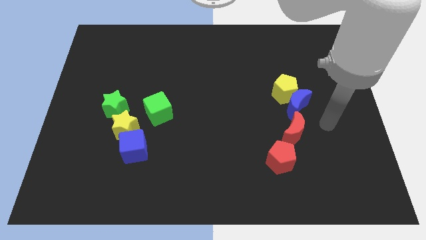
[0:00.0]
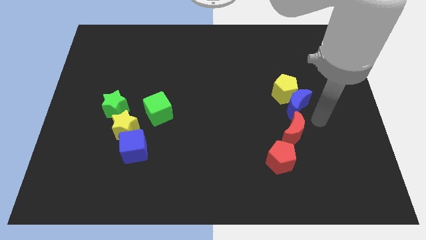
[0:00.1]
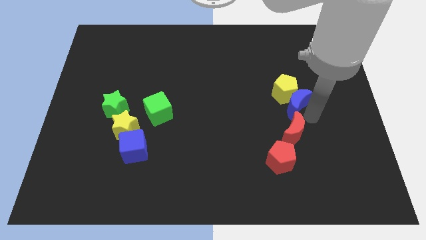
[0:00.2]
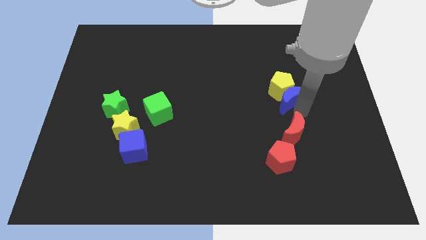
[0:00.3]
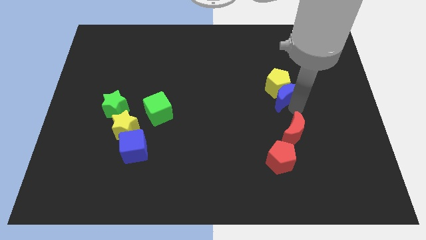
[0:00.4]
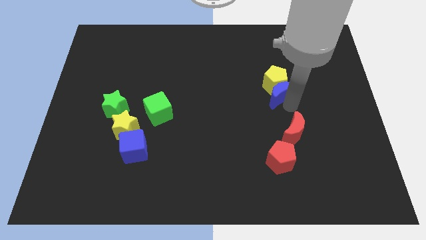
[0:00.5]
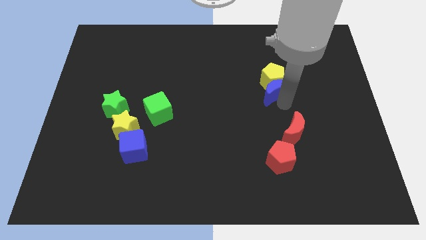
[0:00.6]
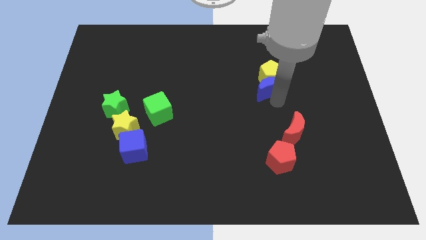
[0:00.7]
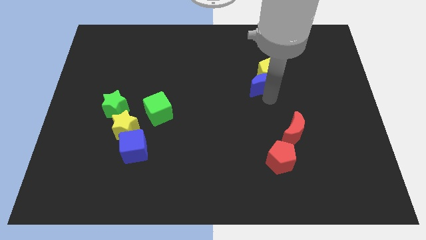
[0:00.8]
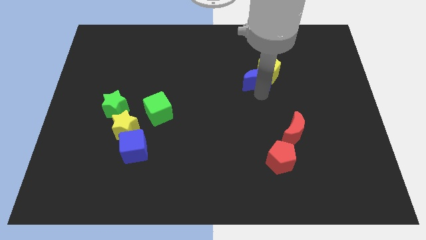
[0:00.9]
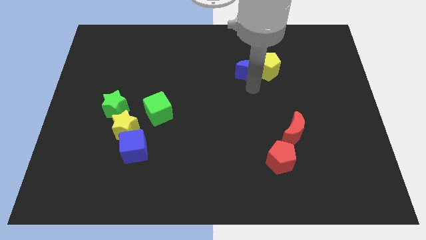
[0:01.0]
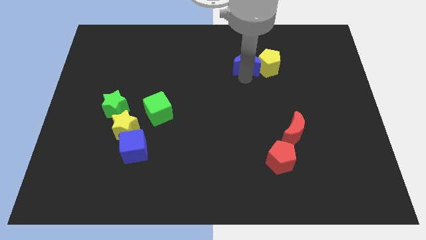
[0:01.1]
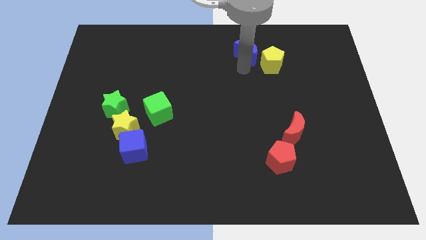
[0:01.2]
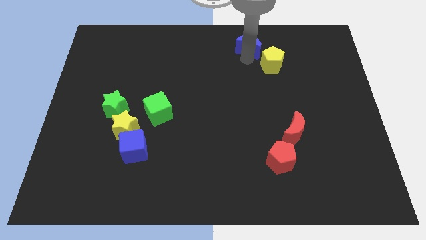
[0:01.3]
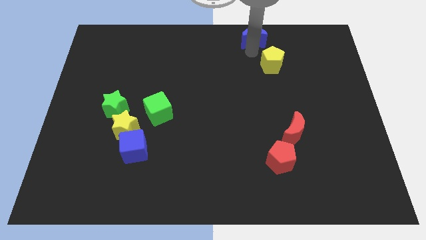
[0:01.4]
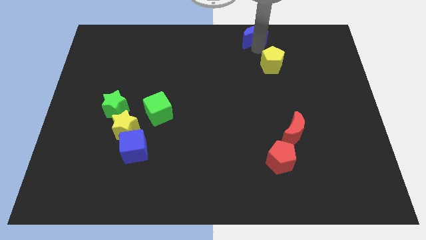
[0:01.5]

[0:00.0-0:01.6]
move the yellow pentagon away from the blue moon

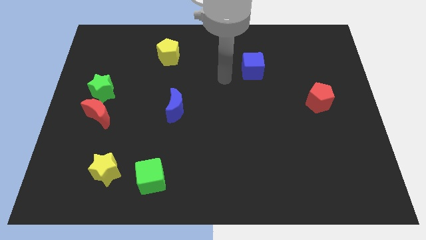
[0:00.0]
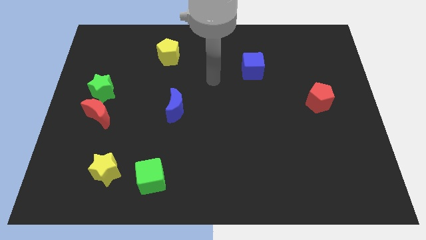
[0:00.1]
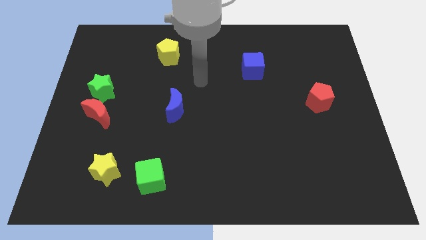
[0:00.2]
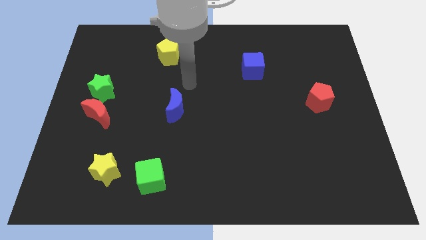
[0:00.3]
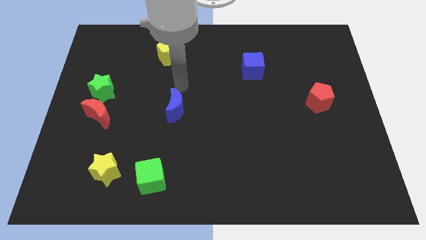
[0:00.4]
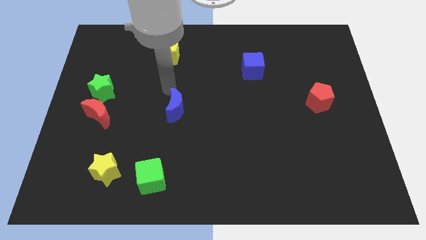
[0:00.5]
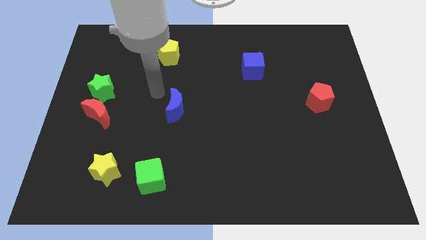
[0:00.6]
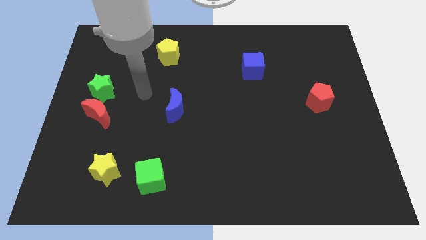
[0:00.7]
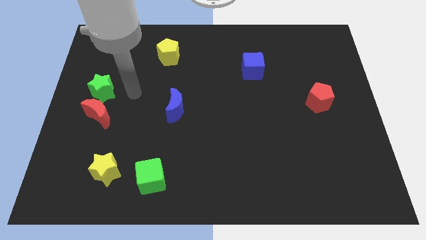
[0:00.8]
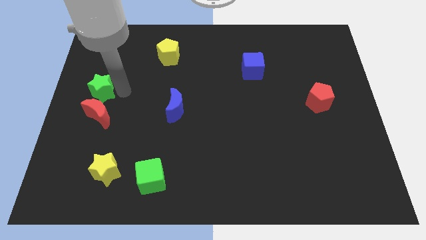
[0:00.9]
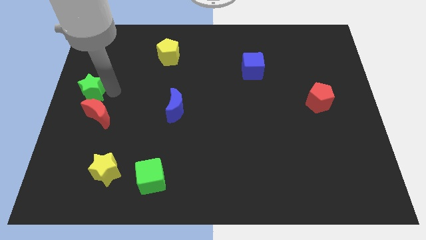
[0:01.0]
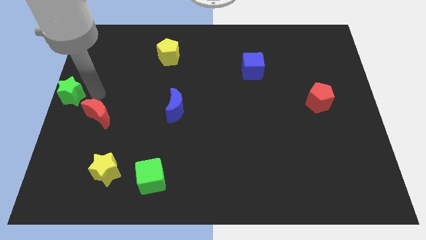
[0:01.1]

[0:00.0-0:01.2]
move the red moon away from the green star

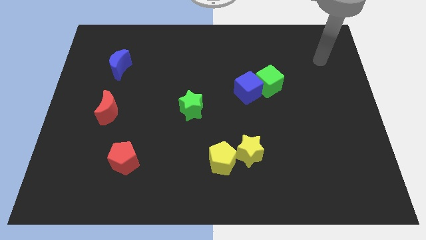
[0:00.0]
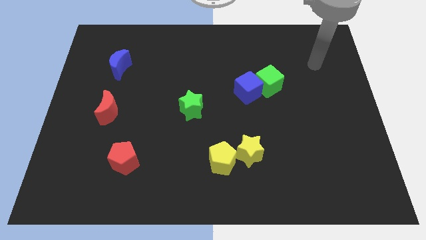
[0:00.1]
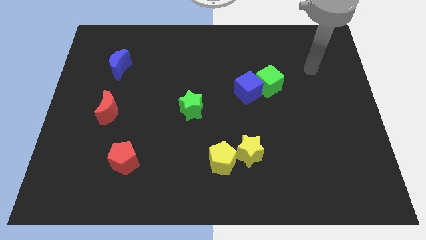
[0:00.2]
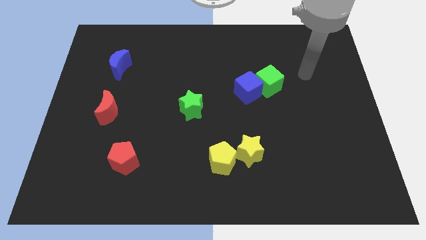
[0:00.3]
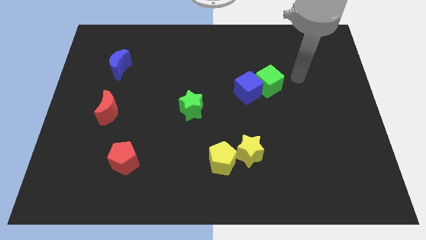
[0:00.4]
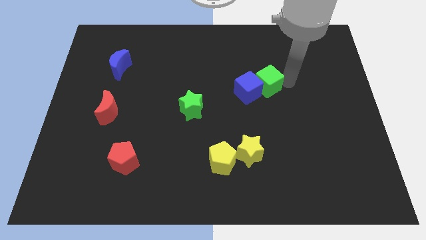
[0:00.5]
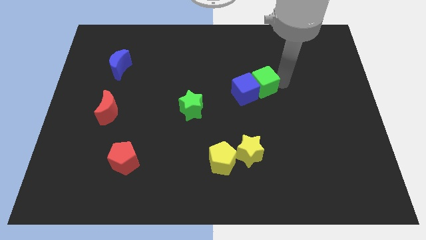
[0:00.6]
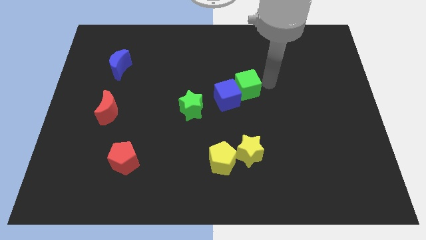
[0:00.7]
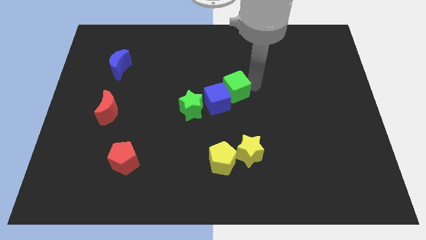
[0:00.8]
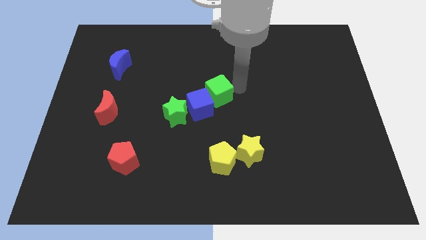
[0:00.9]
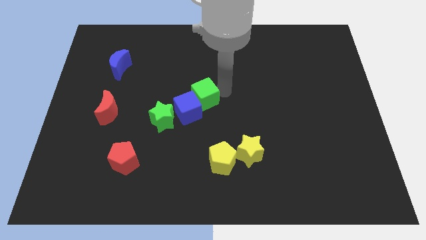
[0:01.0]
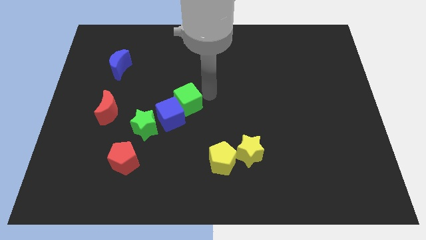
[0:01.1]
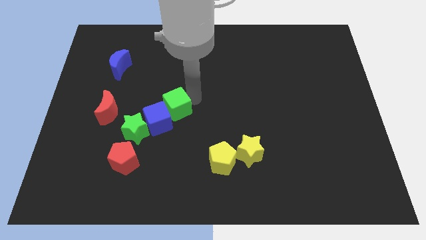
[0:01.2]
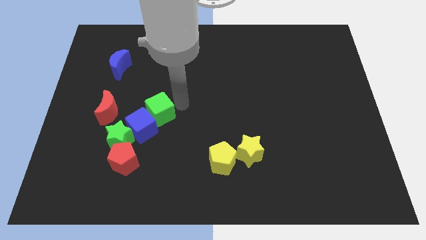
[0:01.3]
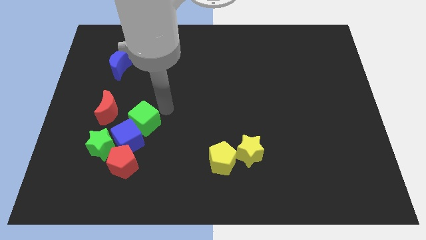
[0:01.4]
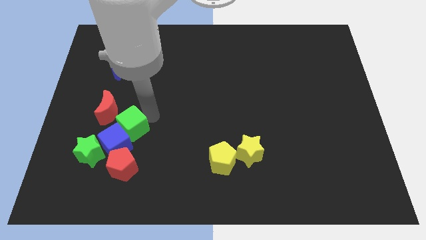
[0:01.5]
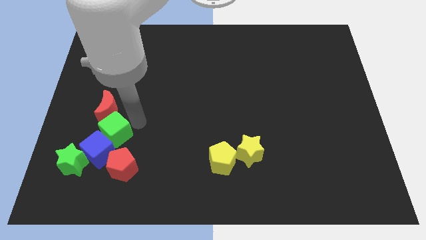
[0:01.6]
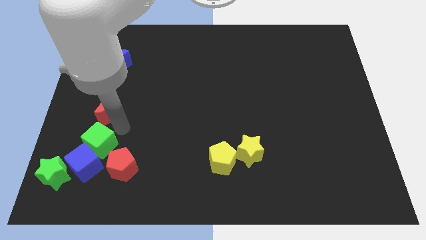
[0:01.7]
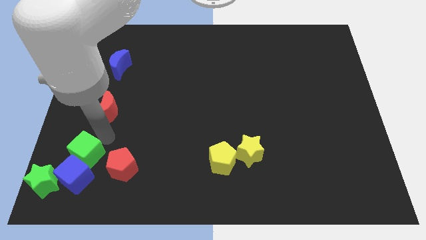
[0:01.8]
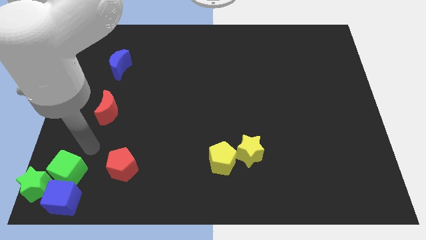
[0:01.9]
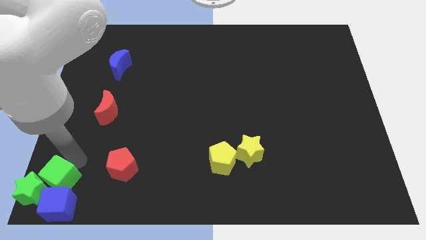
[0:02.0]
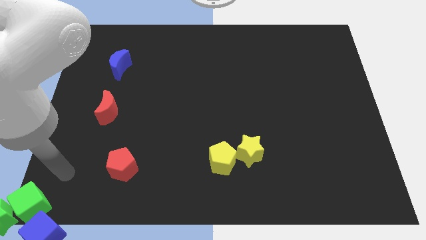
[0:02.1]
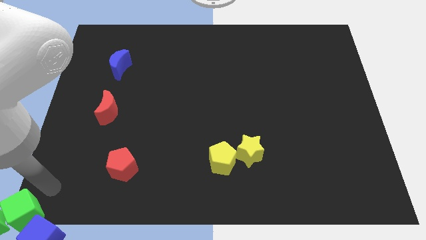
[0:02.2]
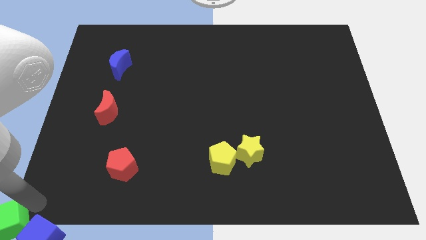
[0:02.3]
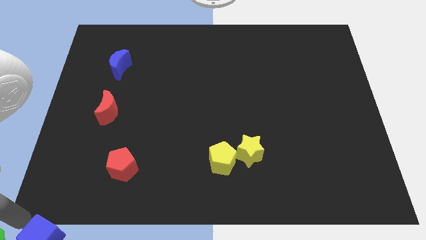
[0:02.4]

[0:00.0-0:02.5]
separate the blue cube from the green cube

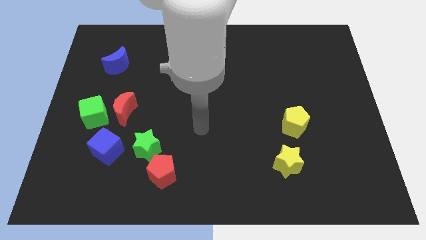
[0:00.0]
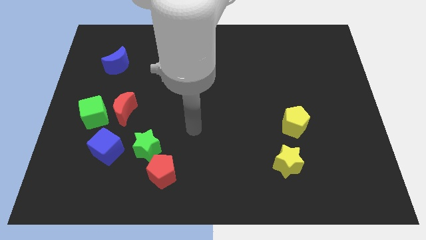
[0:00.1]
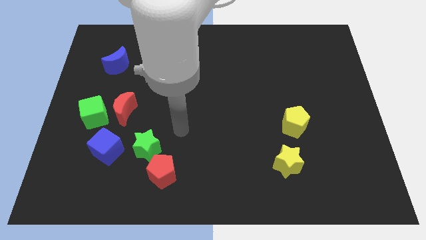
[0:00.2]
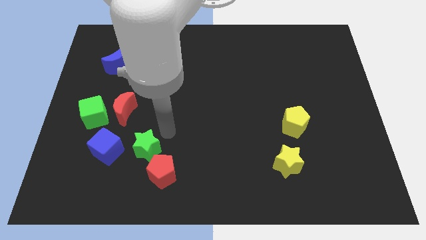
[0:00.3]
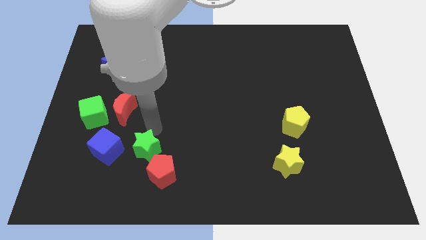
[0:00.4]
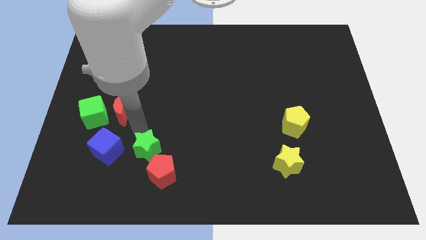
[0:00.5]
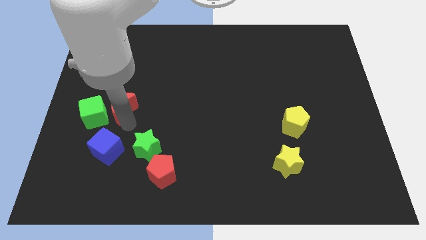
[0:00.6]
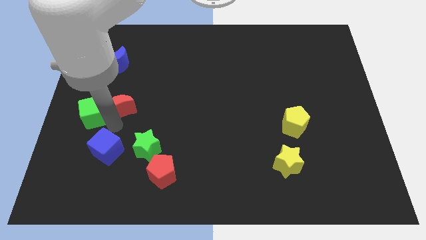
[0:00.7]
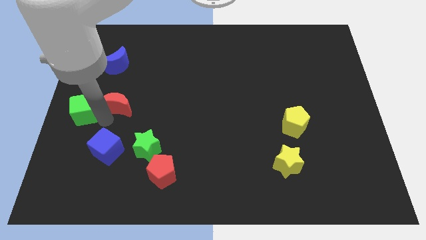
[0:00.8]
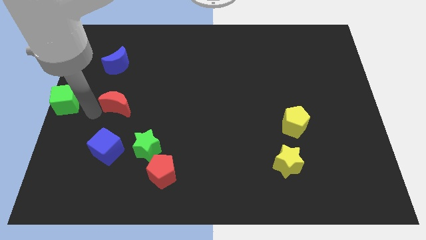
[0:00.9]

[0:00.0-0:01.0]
move the red moon away from the green cube

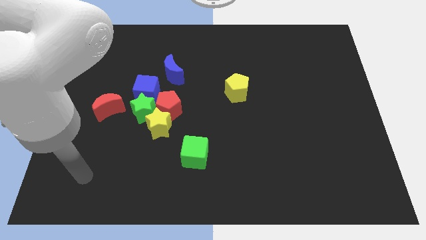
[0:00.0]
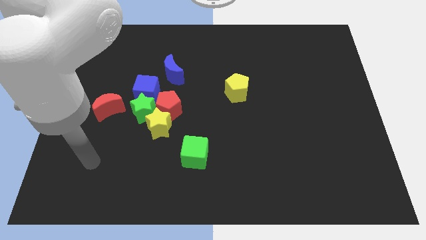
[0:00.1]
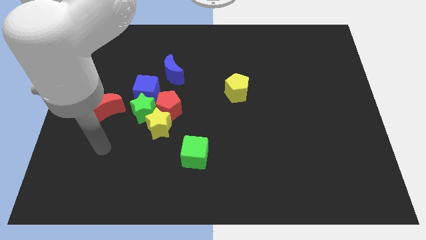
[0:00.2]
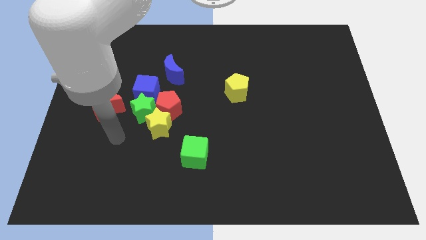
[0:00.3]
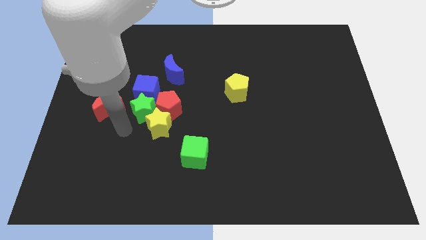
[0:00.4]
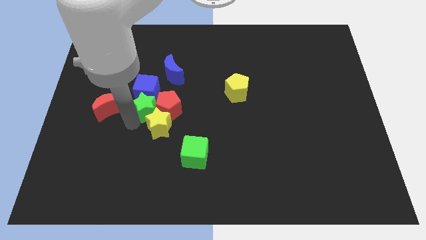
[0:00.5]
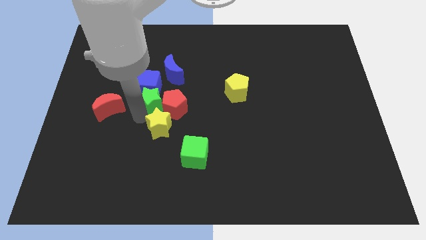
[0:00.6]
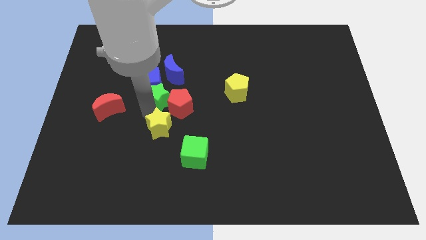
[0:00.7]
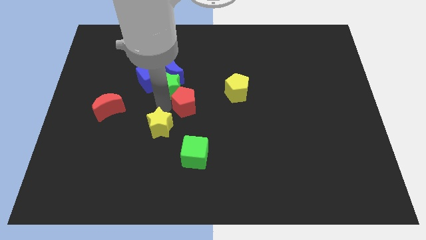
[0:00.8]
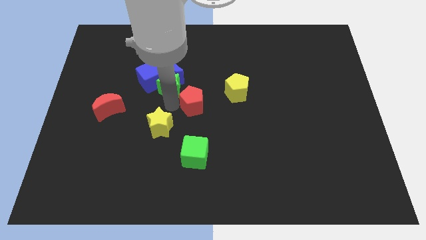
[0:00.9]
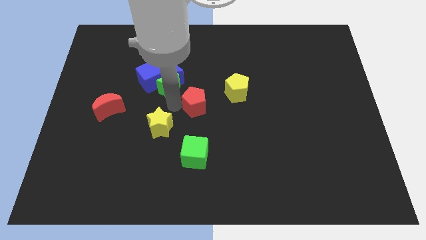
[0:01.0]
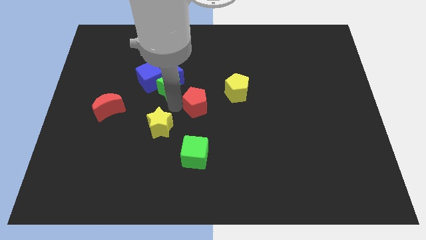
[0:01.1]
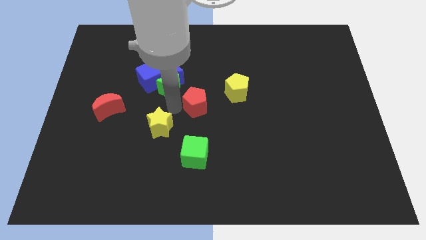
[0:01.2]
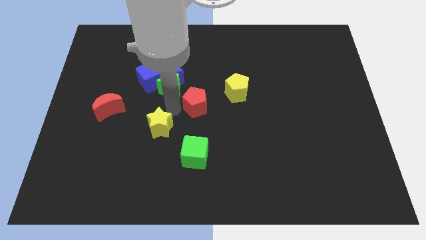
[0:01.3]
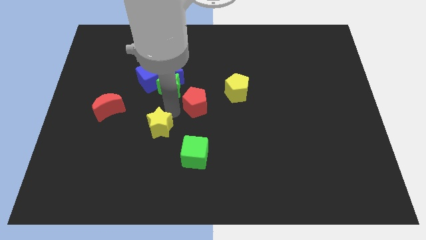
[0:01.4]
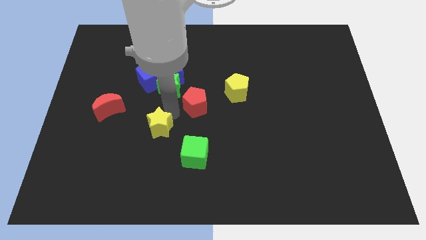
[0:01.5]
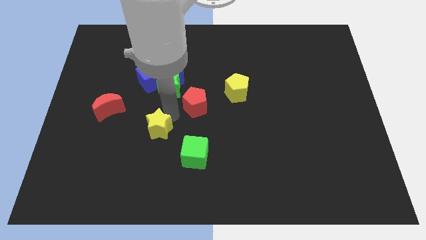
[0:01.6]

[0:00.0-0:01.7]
move the yellow star away from the red pentagon and green star

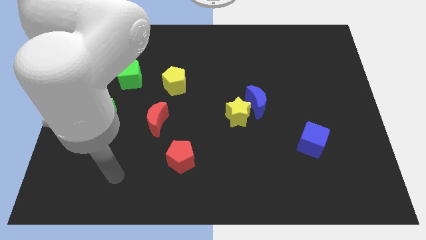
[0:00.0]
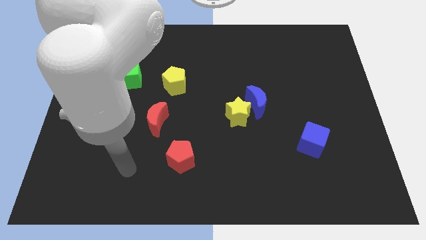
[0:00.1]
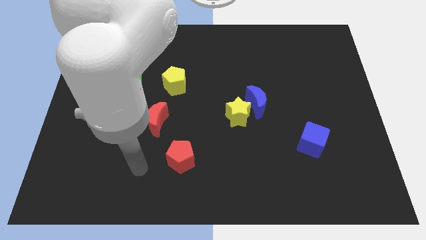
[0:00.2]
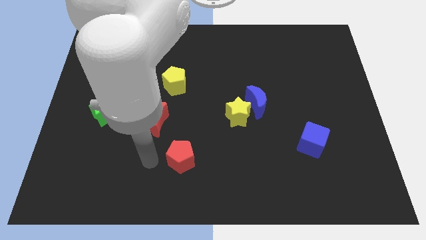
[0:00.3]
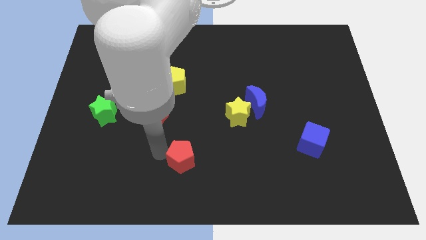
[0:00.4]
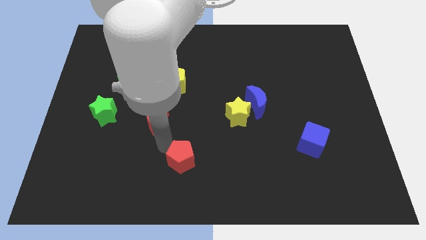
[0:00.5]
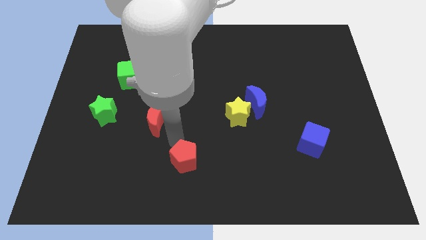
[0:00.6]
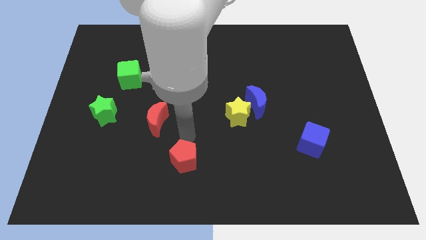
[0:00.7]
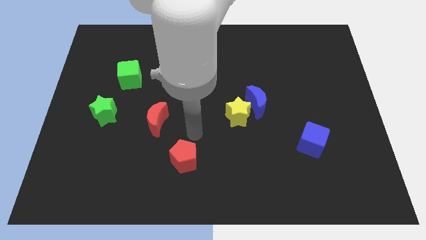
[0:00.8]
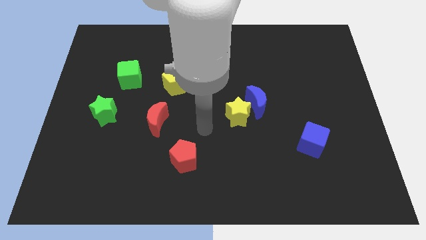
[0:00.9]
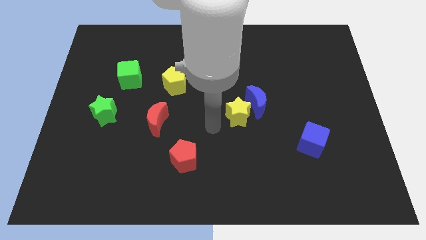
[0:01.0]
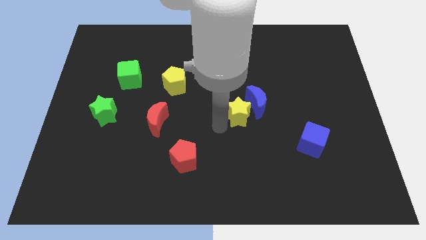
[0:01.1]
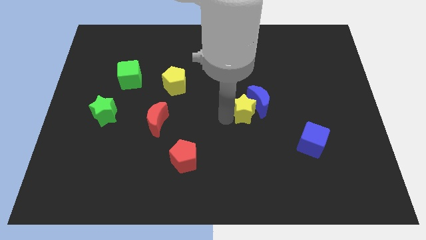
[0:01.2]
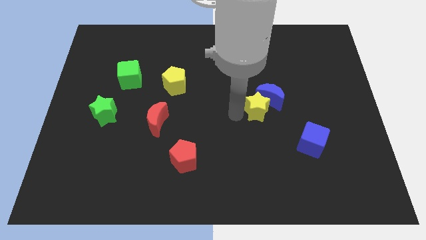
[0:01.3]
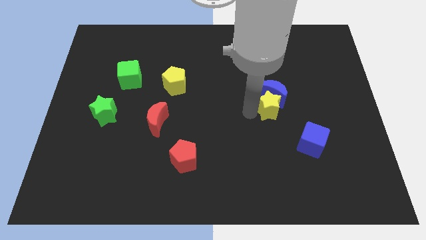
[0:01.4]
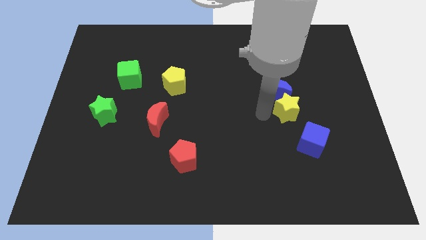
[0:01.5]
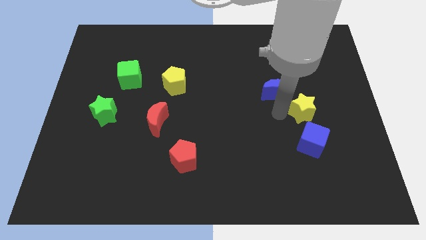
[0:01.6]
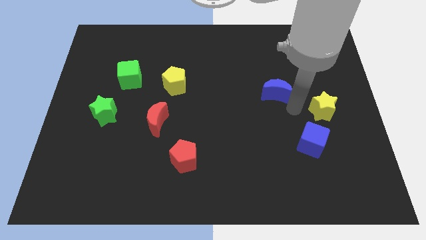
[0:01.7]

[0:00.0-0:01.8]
move the blue moon away from the yellow star